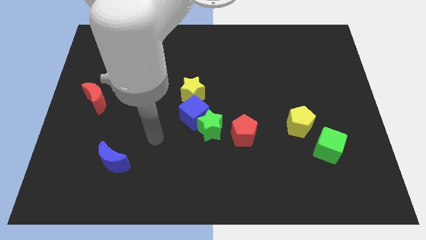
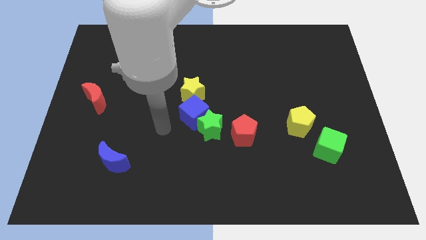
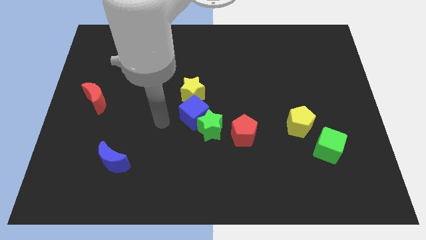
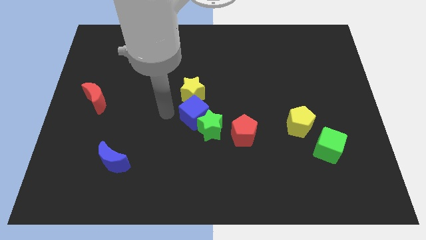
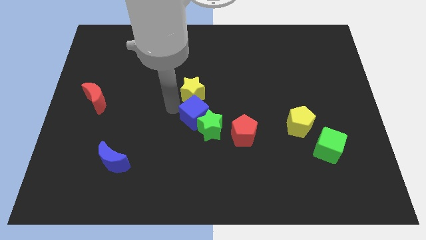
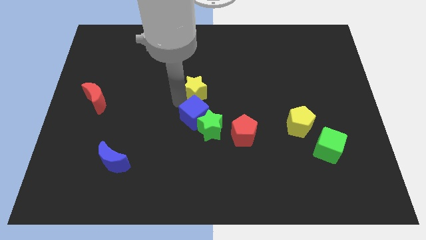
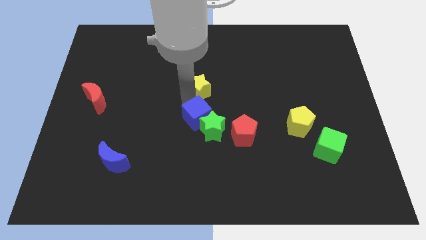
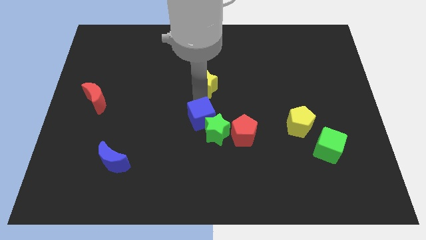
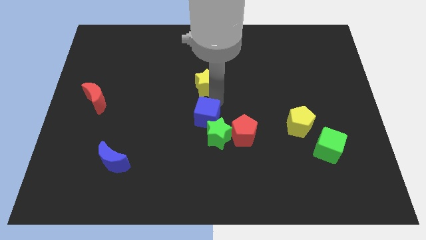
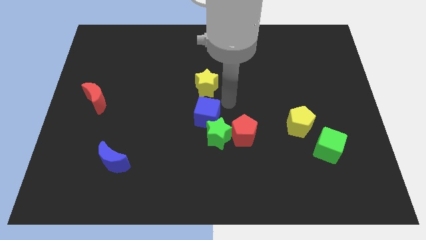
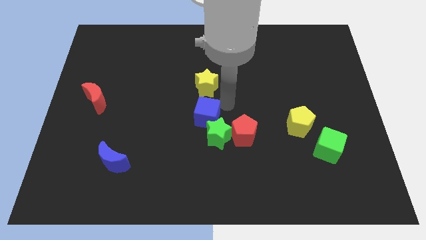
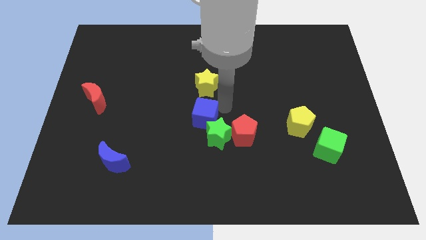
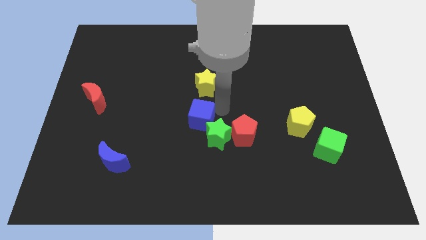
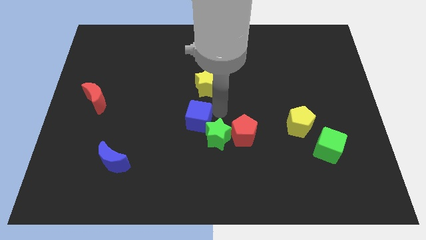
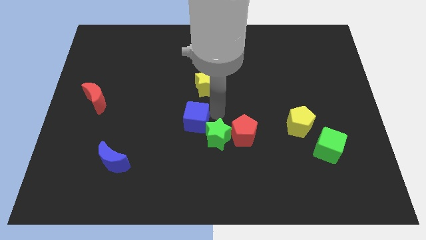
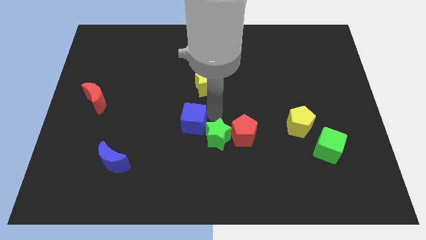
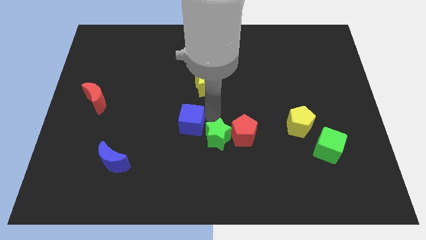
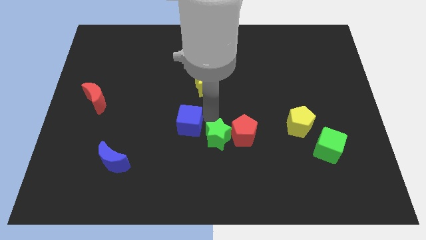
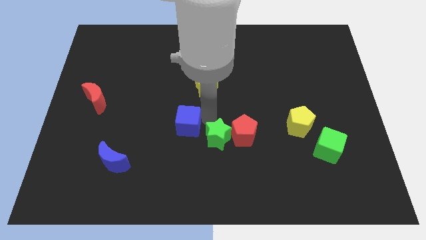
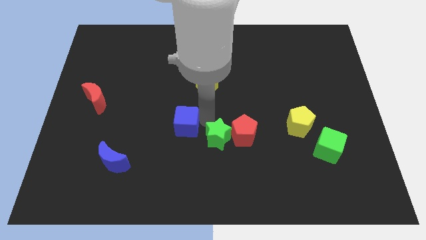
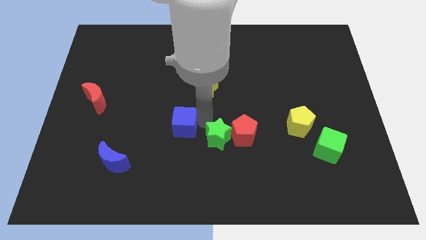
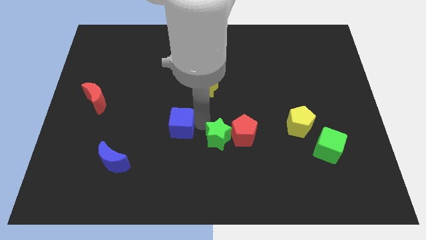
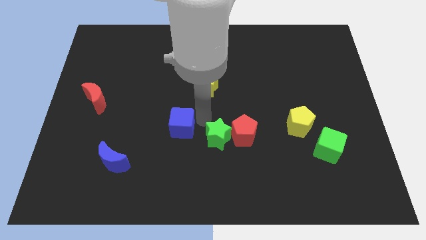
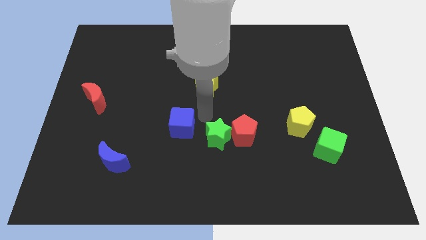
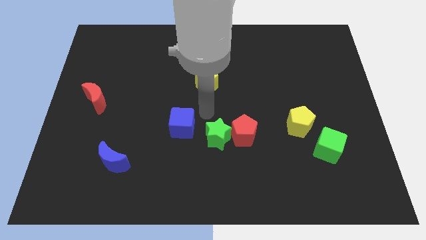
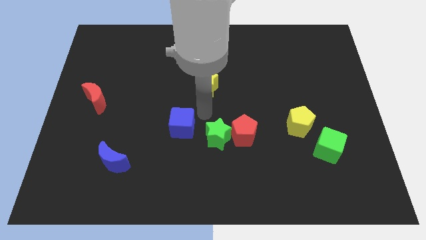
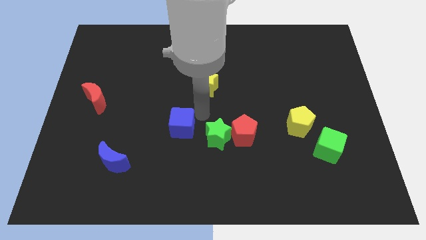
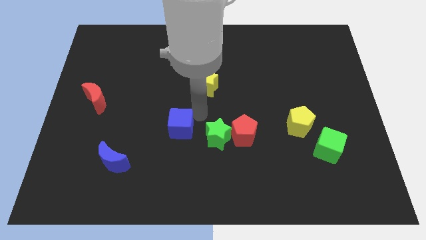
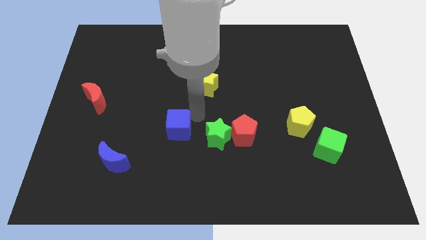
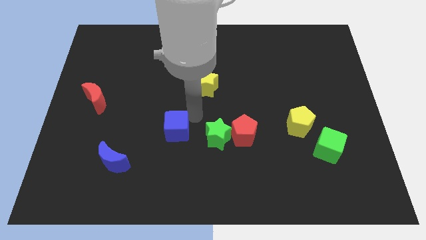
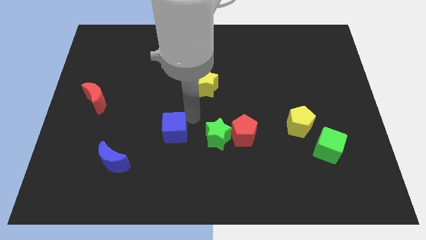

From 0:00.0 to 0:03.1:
pull the blue cube apart from the green star and yellow star

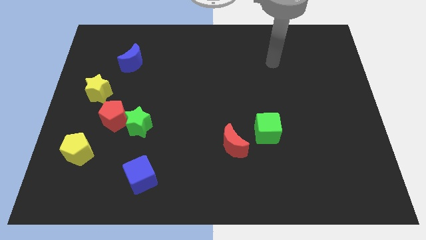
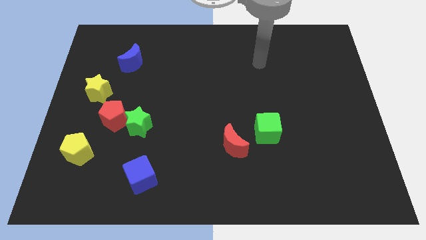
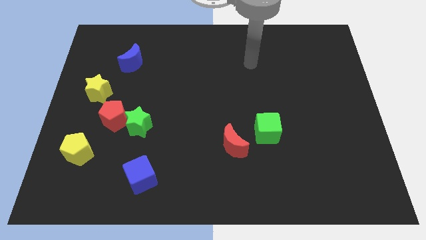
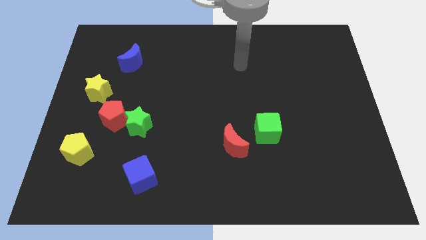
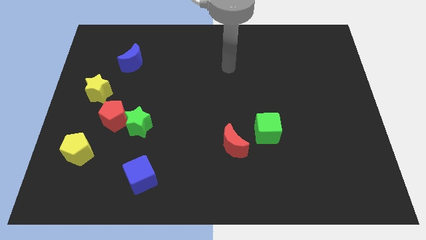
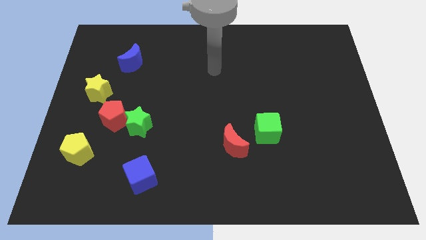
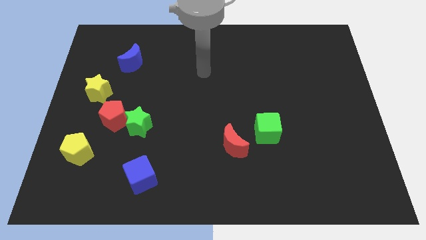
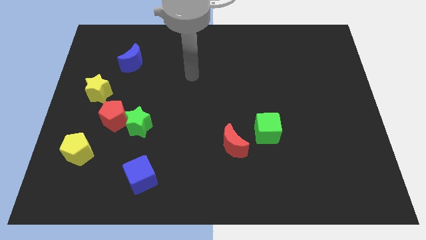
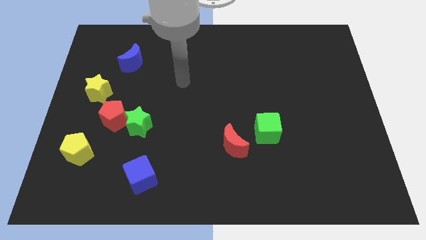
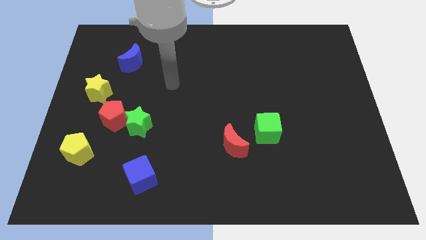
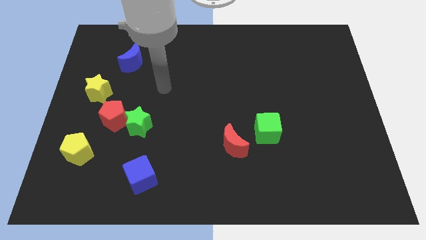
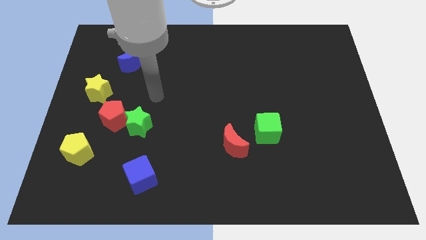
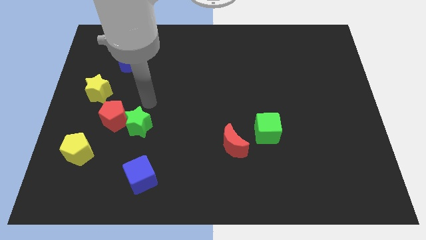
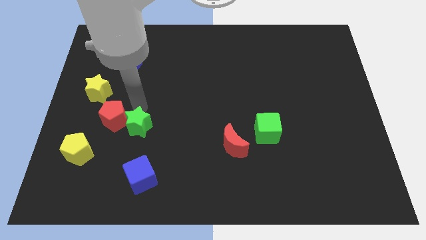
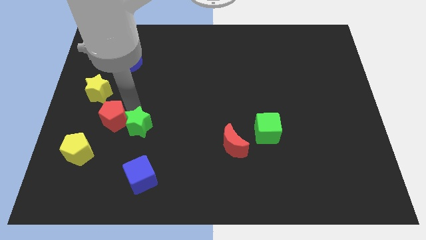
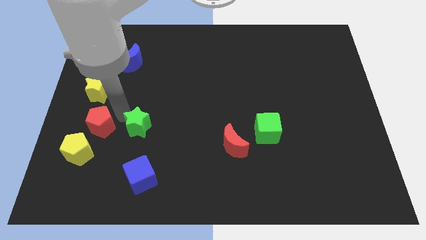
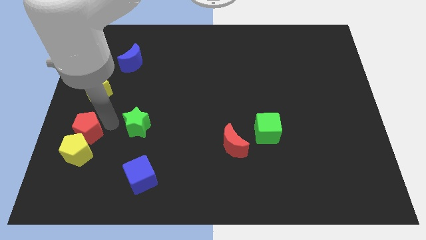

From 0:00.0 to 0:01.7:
separate the green star from the red pentagon

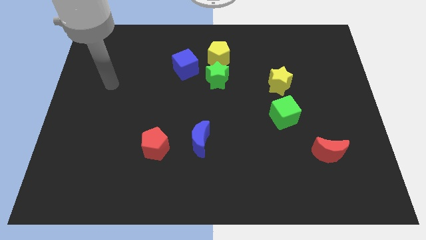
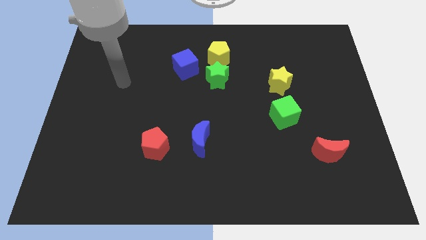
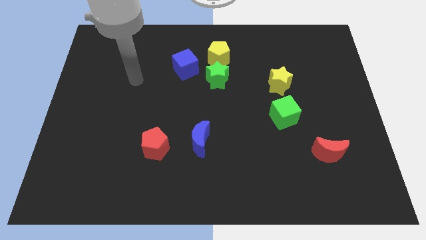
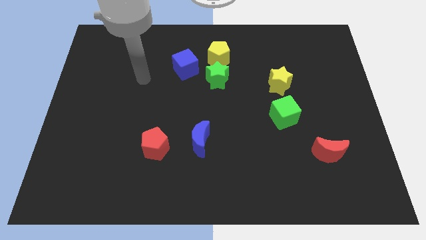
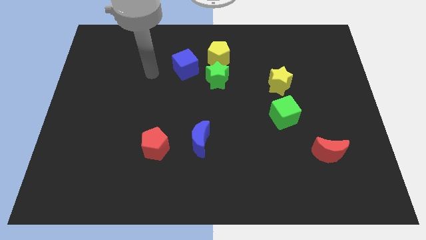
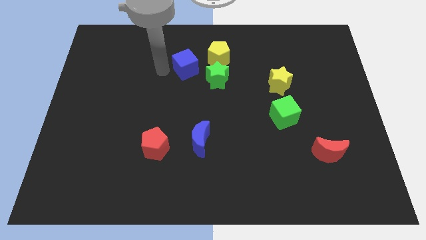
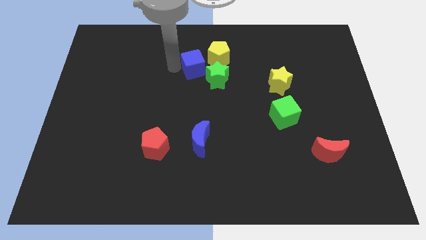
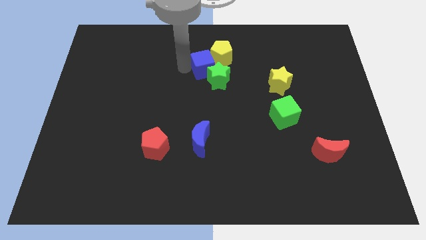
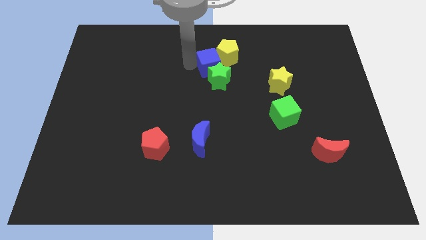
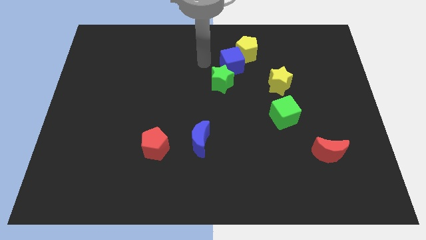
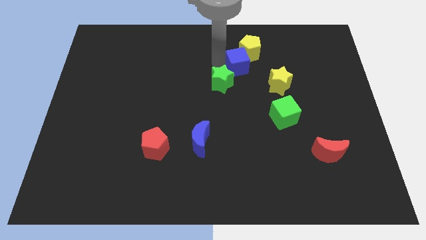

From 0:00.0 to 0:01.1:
separate the green star from the yellow pentagon and blue cube

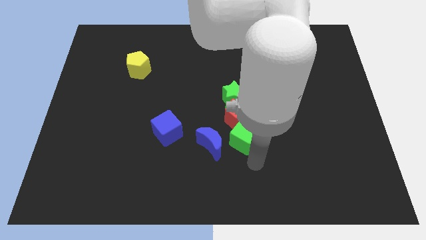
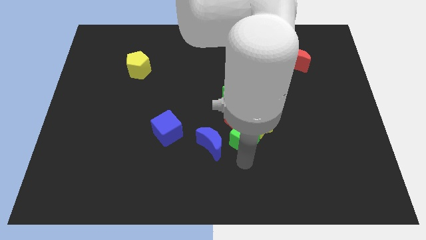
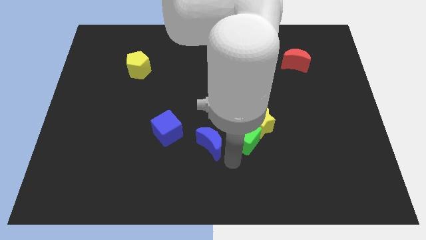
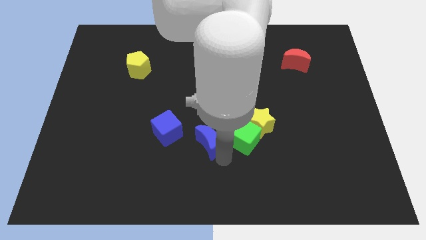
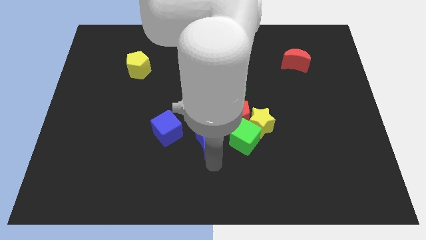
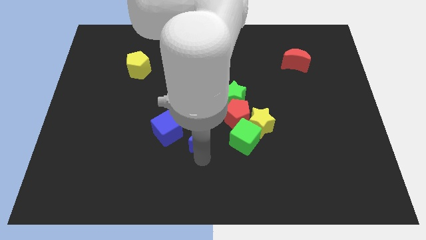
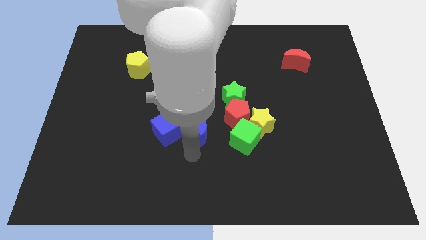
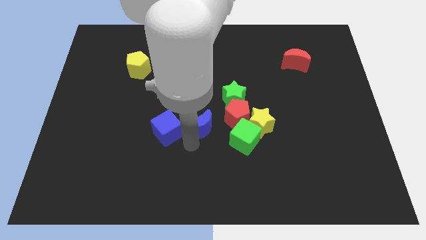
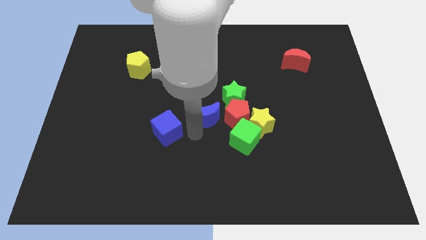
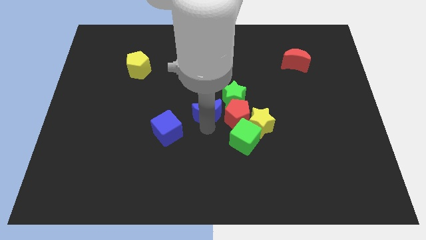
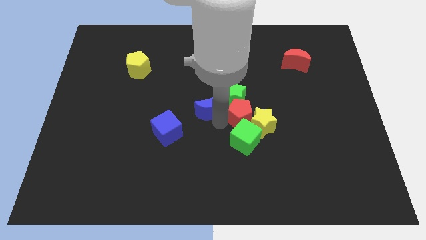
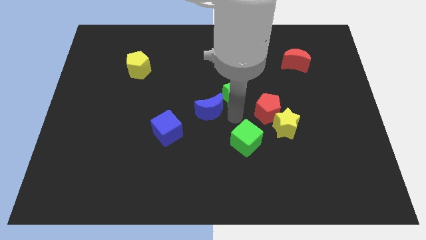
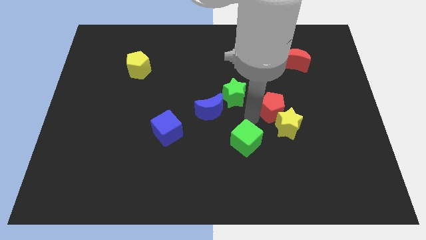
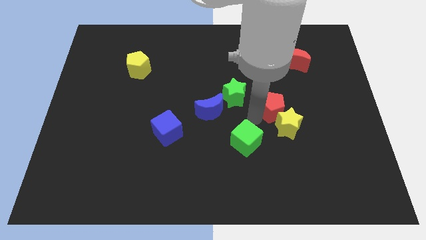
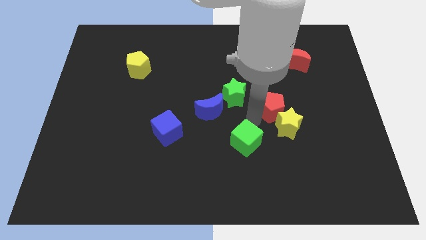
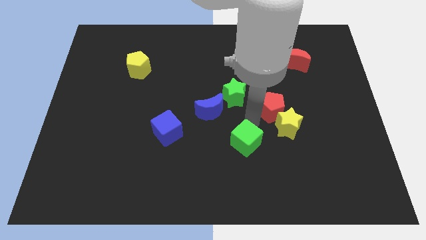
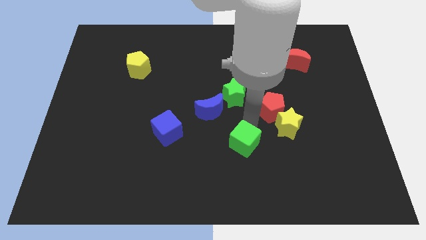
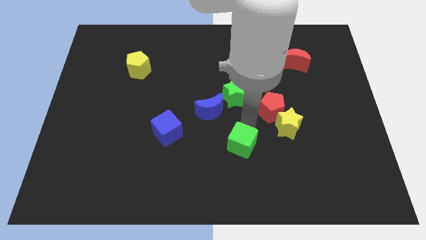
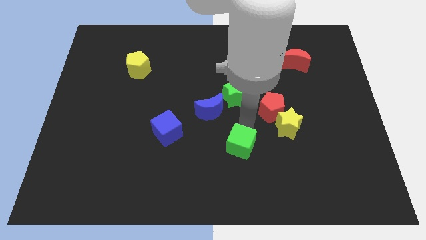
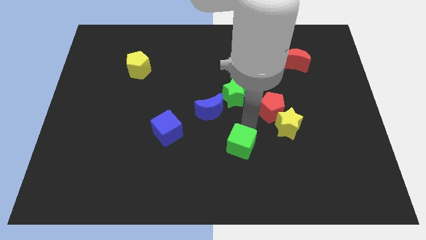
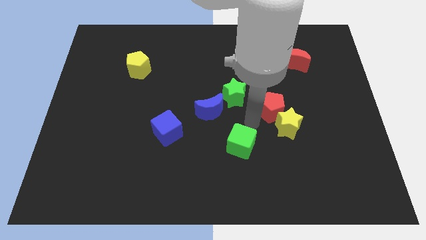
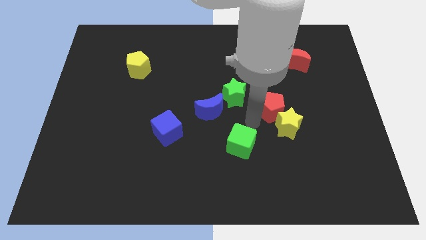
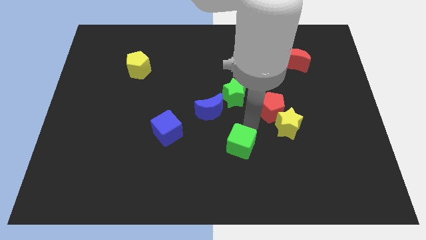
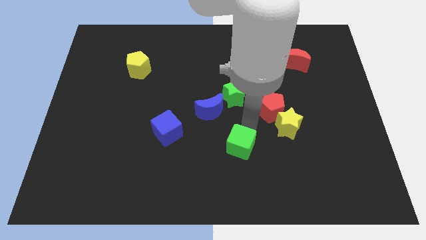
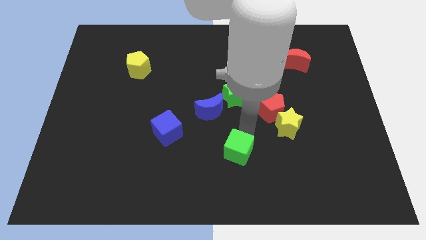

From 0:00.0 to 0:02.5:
separate the green cube from the clump

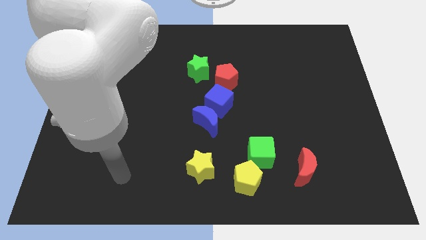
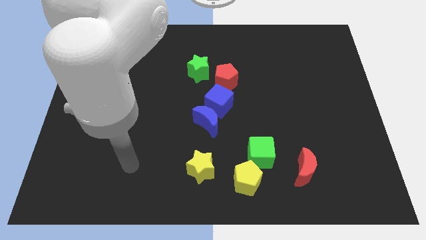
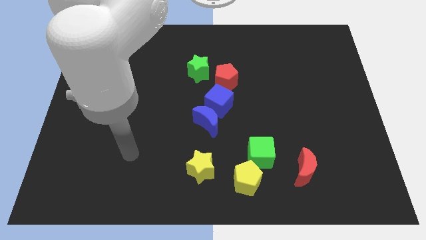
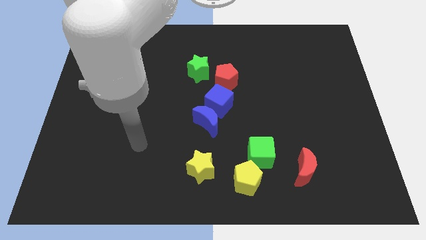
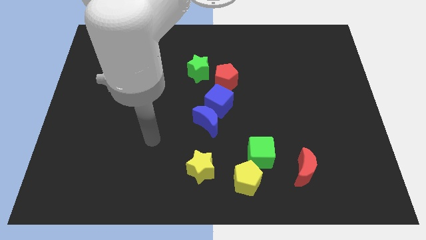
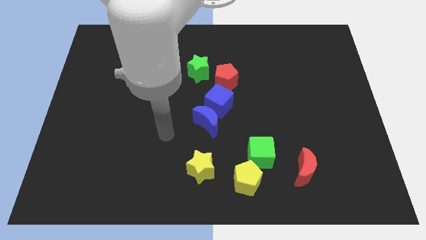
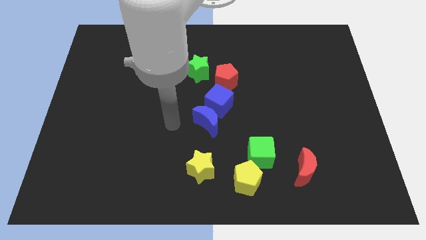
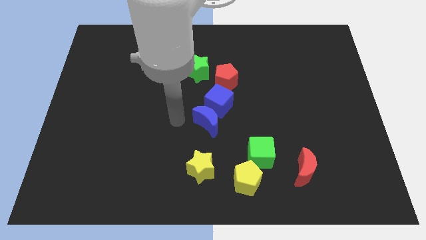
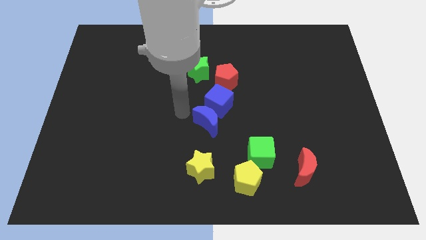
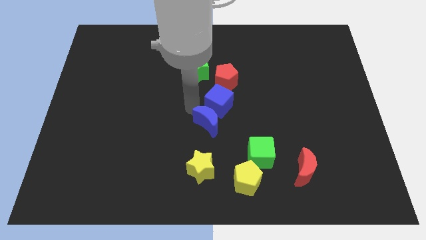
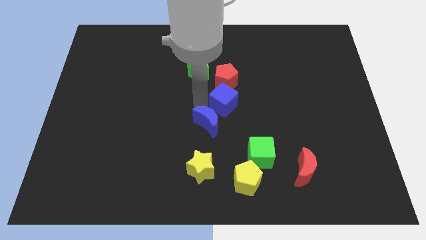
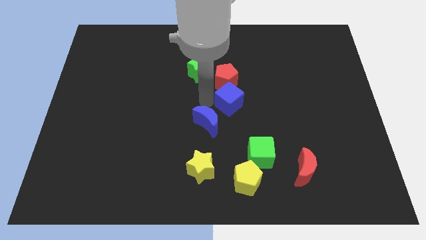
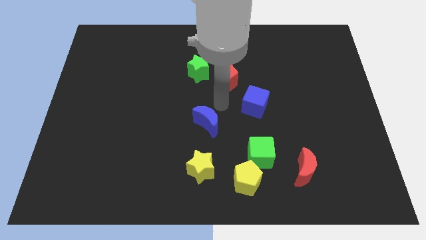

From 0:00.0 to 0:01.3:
separate the blue moon from the blue cube
